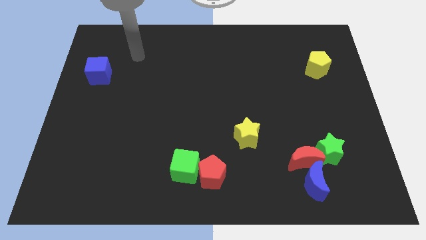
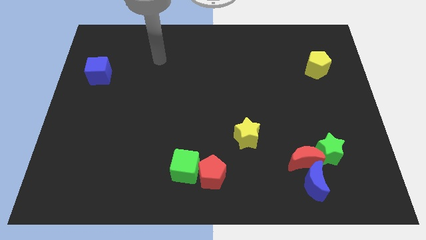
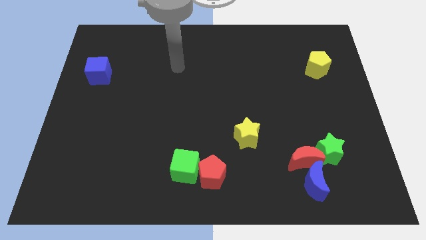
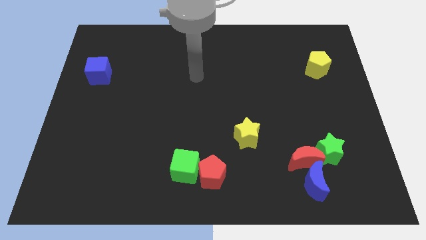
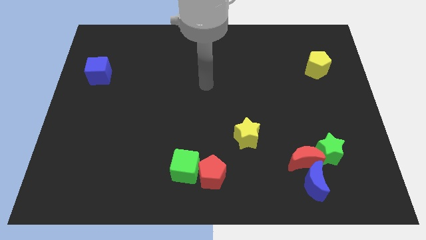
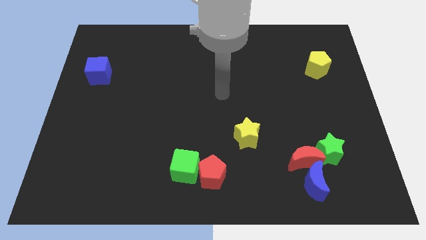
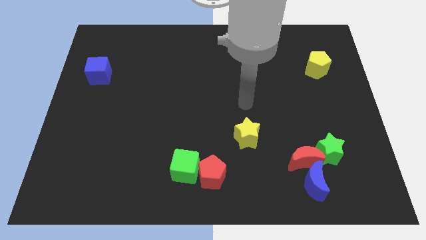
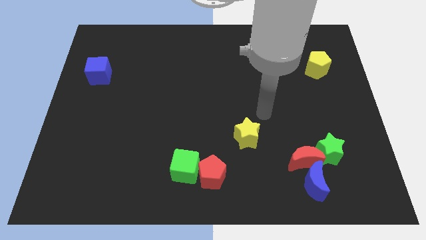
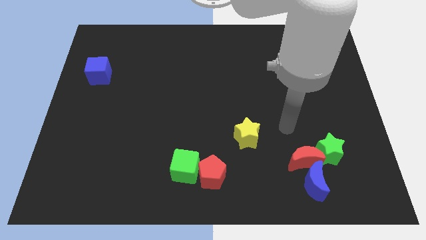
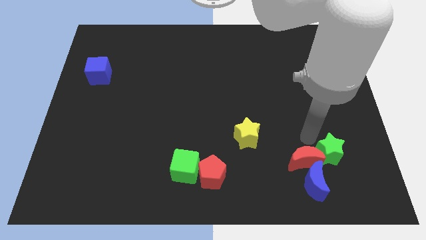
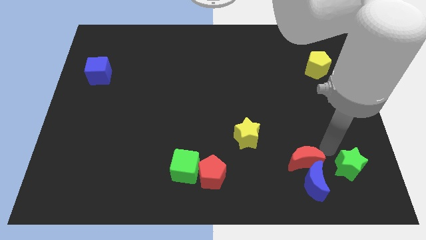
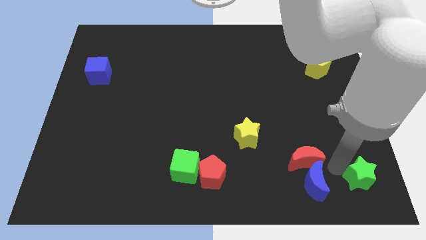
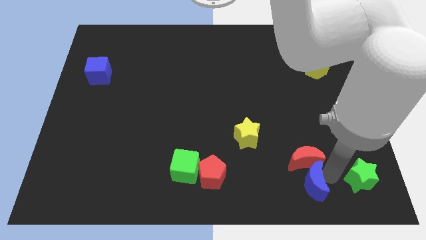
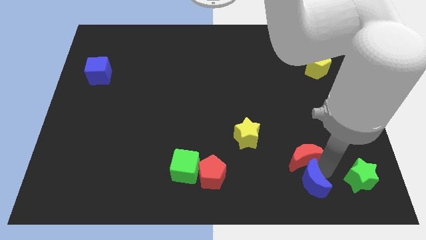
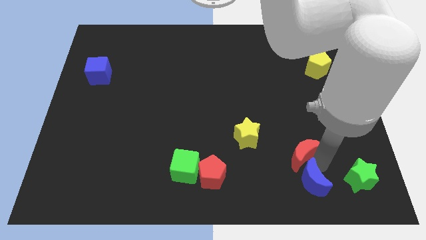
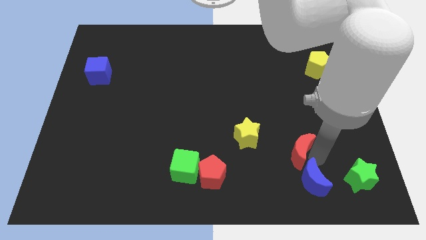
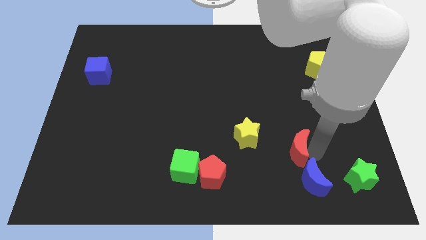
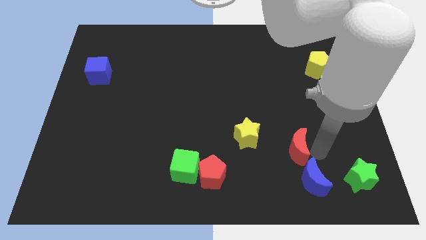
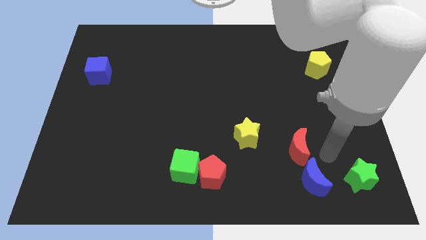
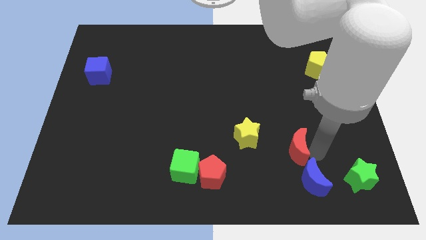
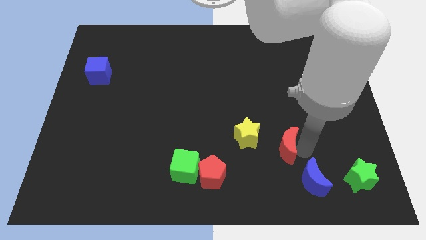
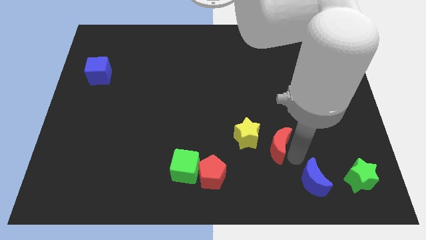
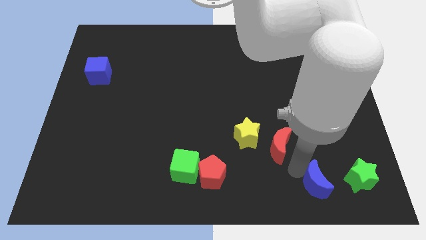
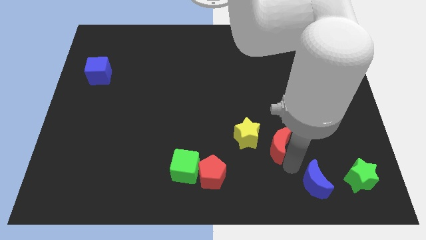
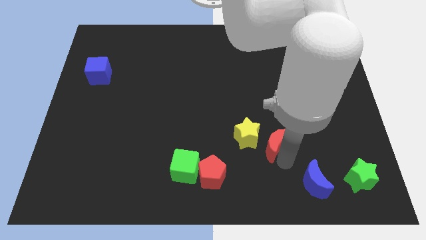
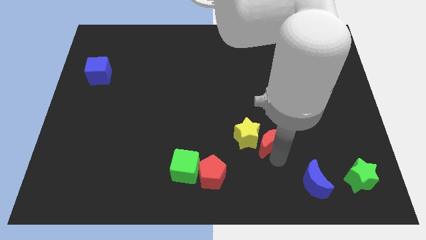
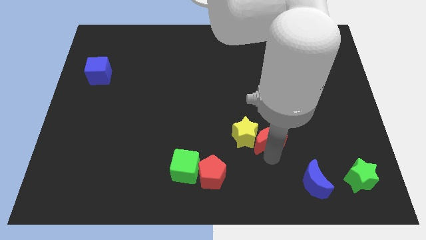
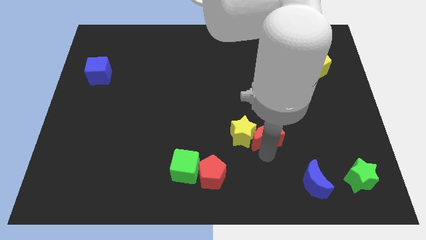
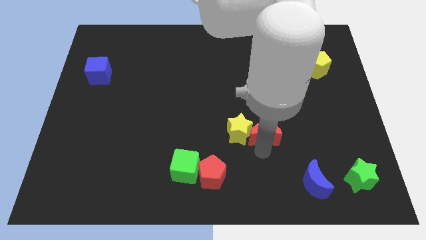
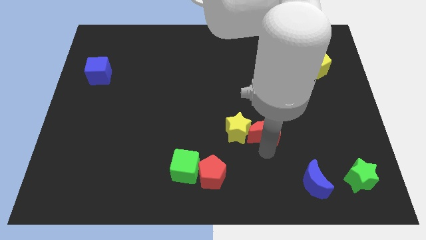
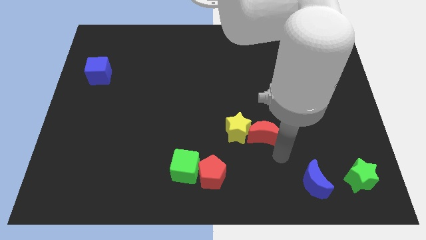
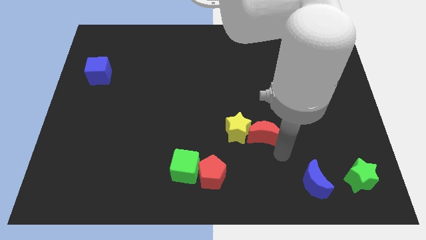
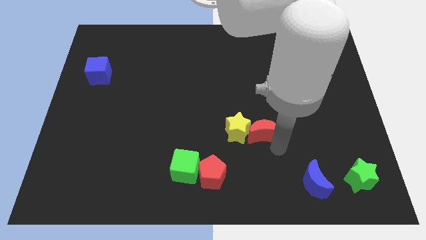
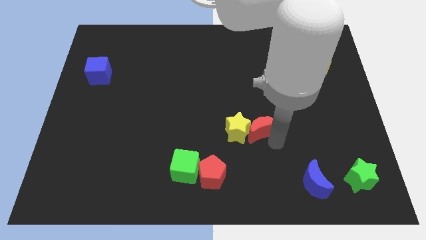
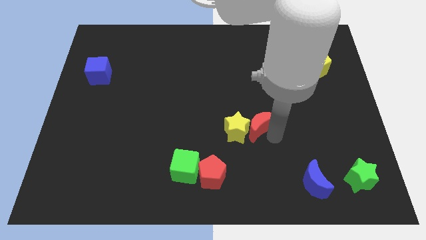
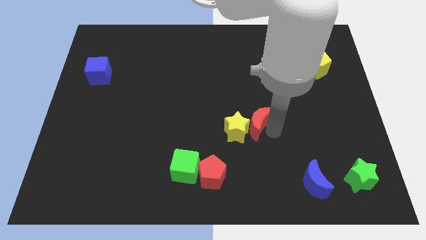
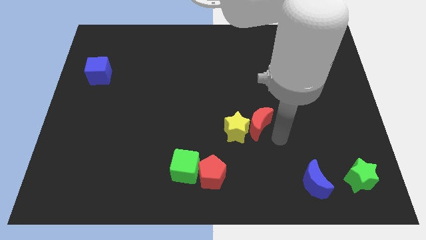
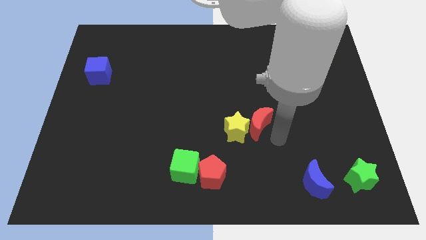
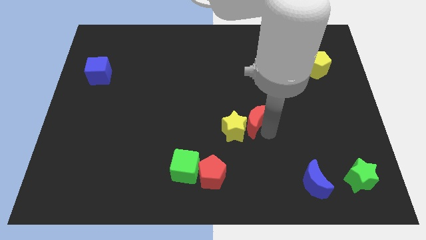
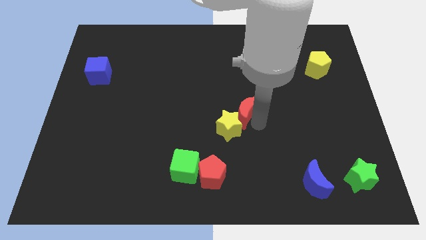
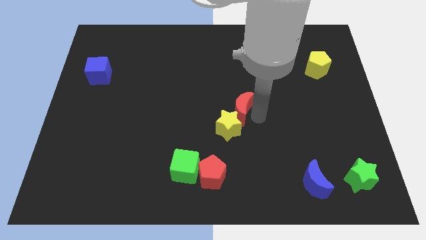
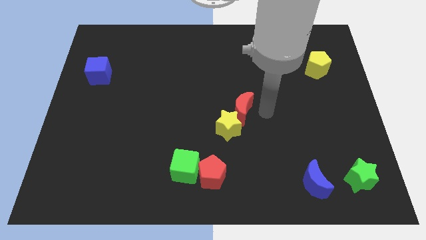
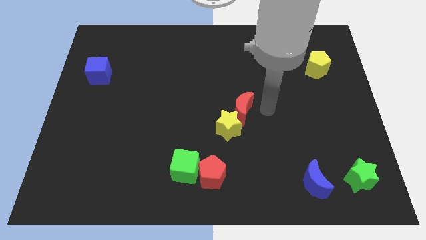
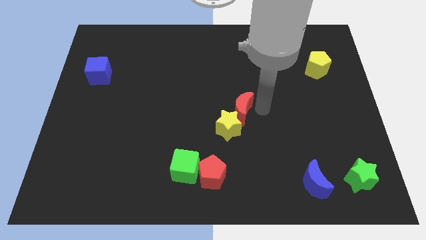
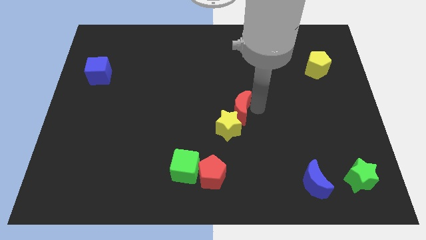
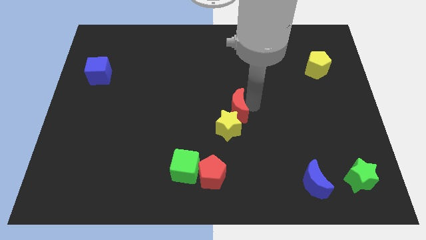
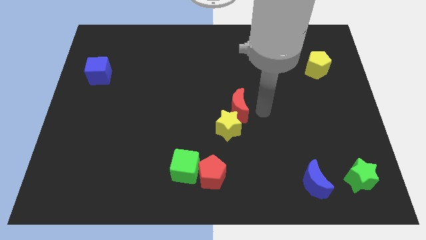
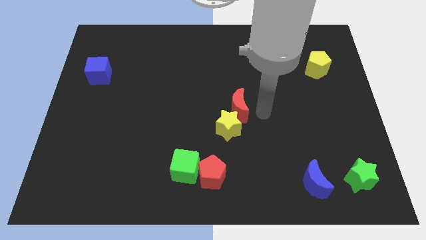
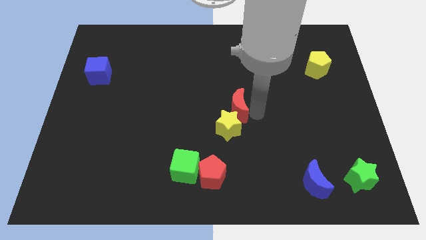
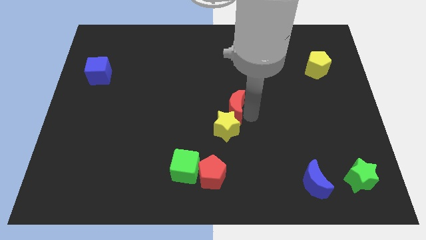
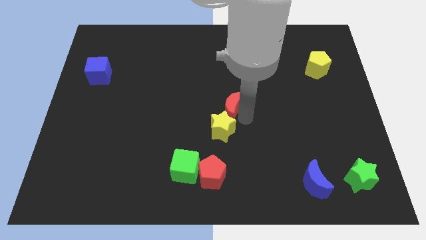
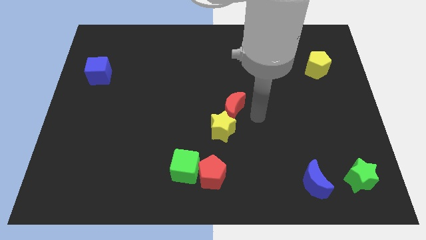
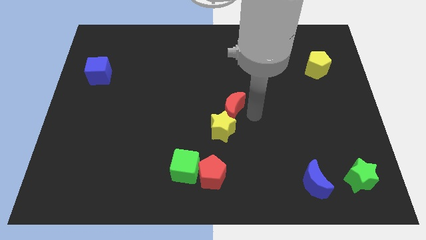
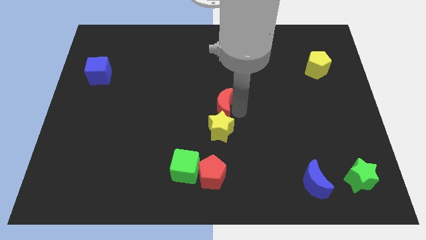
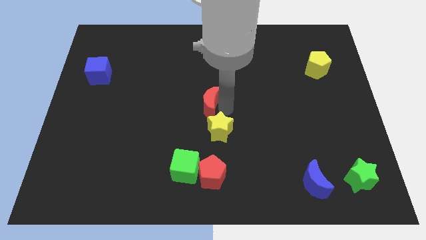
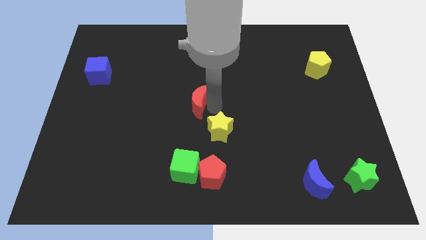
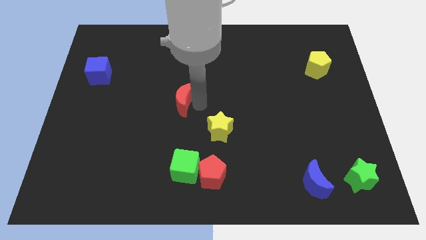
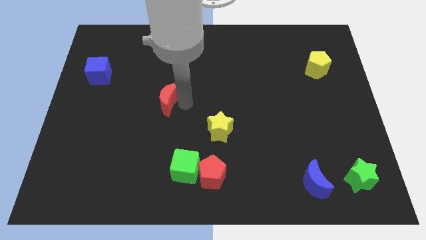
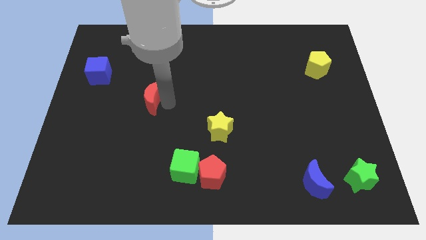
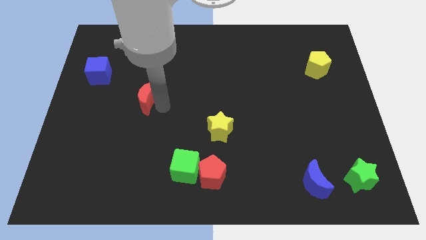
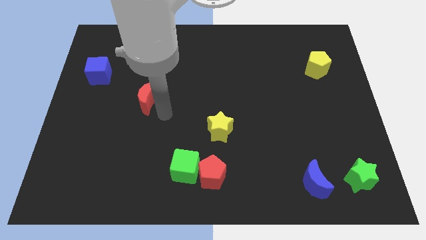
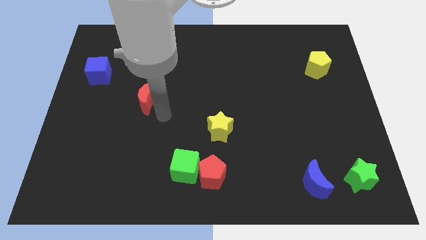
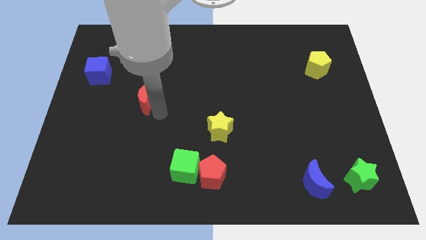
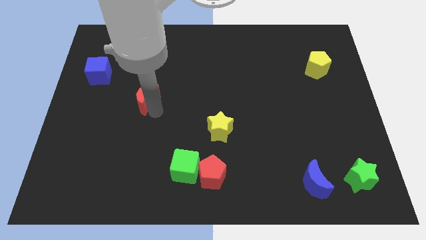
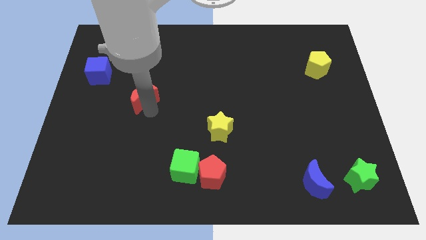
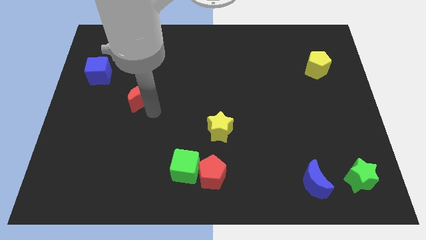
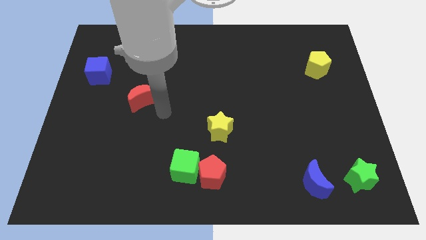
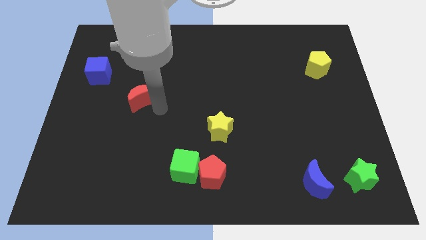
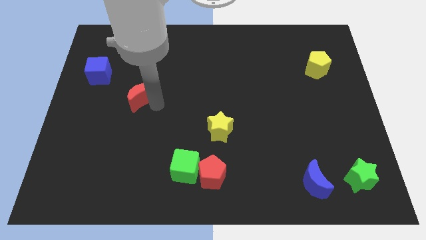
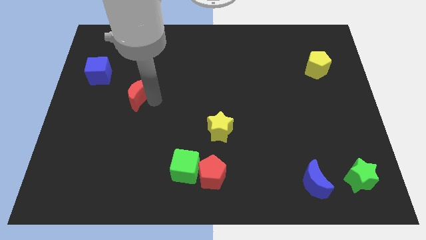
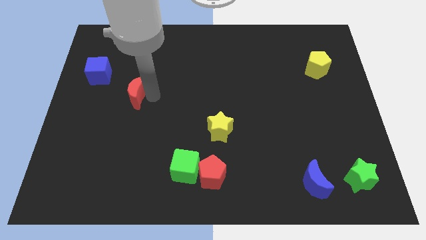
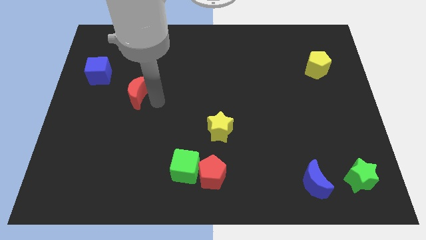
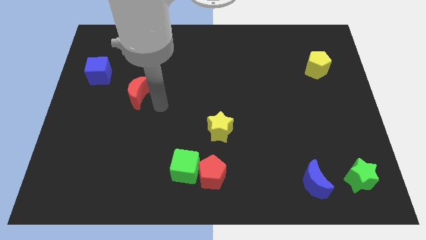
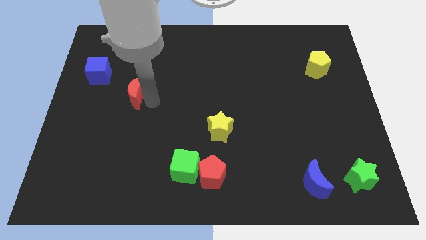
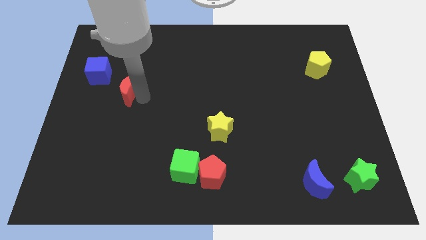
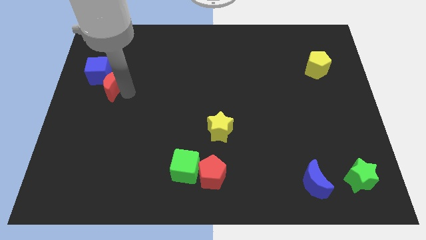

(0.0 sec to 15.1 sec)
slide the red moon close to the blue cube

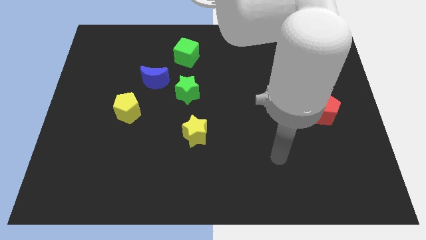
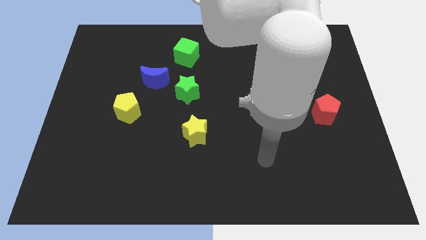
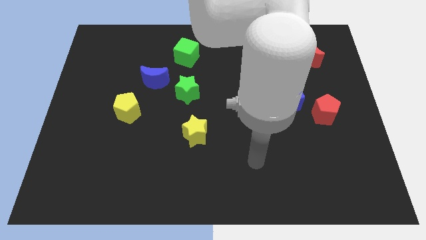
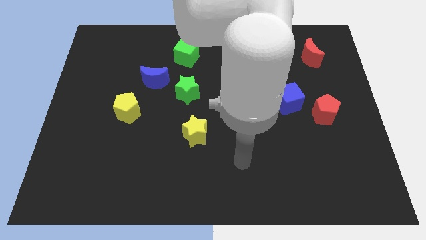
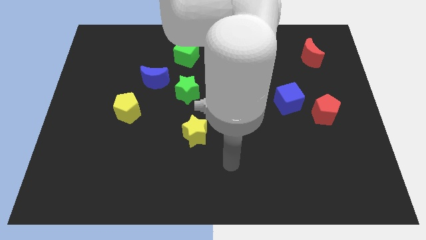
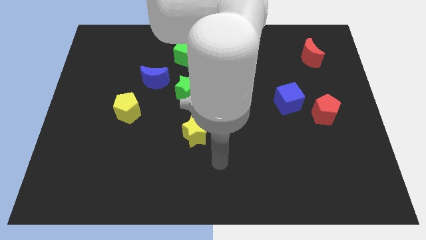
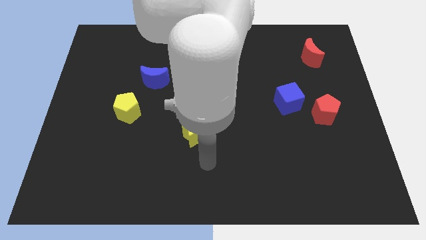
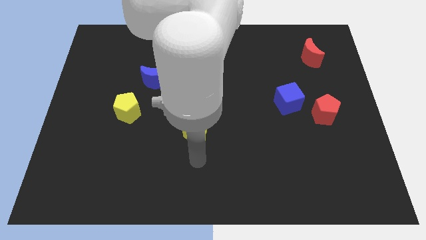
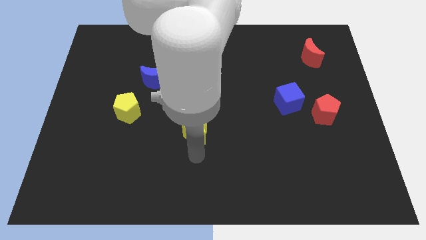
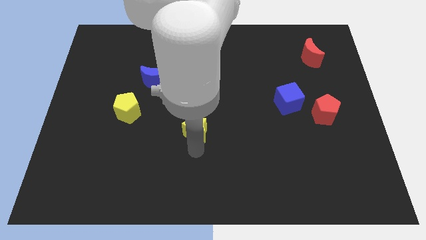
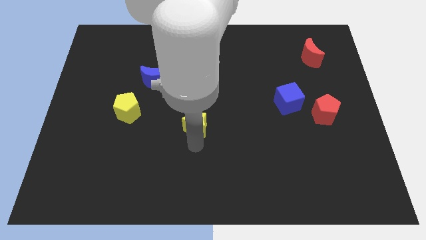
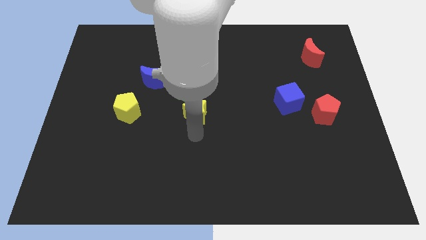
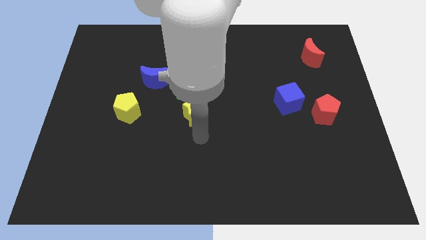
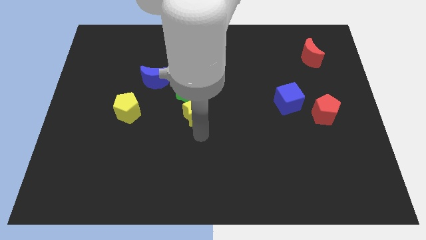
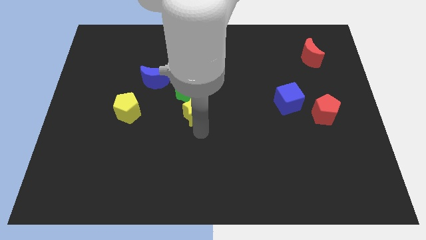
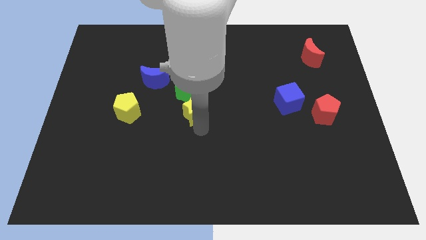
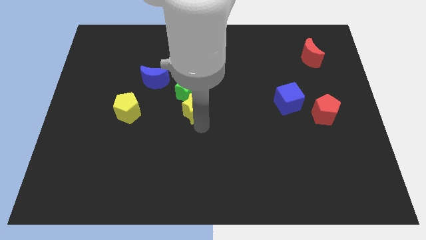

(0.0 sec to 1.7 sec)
slide the yellow star to the green star
